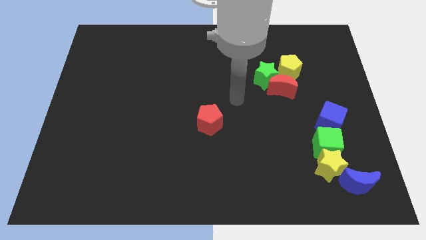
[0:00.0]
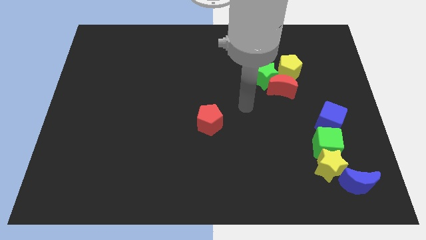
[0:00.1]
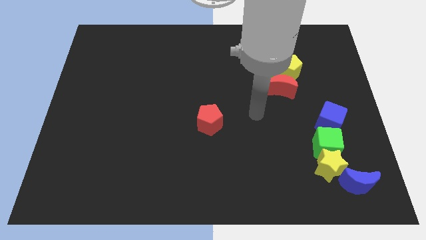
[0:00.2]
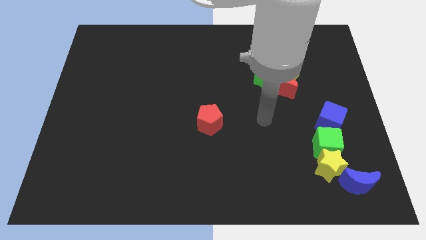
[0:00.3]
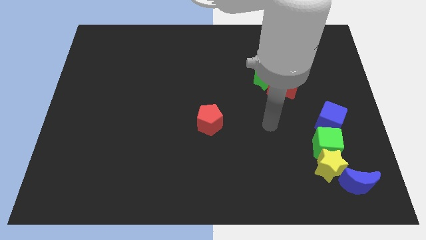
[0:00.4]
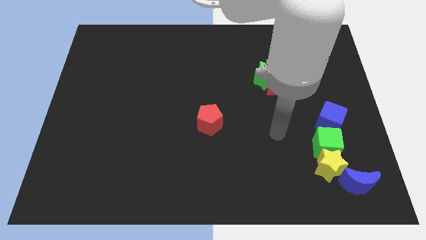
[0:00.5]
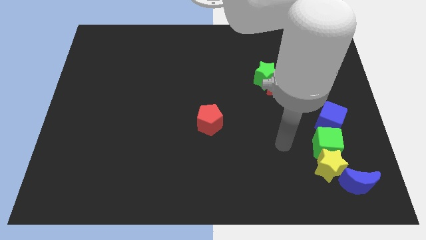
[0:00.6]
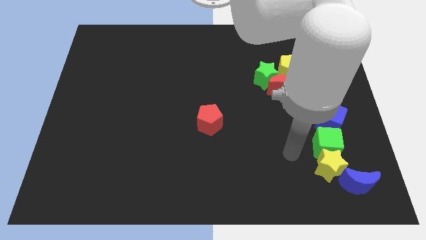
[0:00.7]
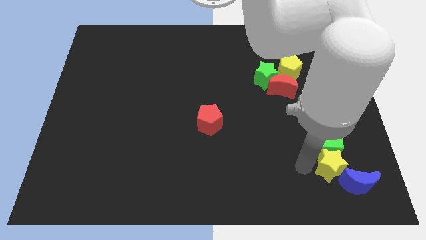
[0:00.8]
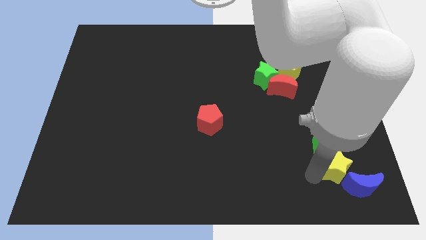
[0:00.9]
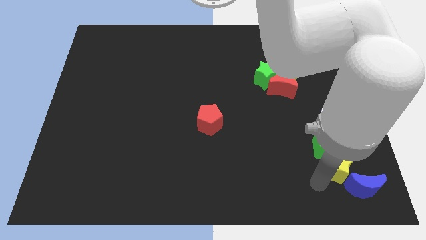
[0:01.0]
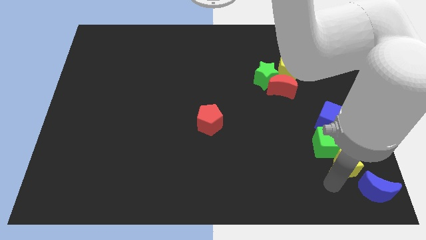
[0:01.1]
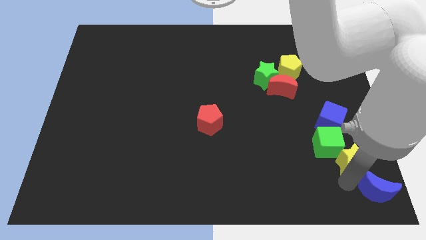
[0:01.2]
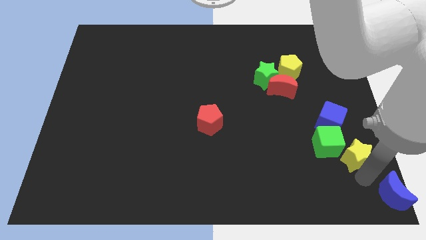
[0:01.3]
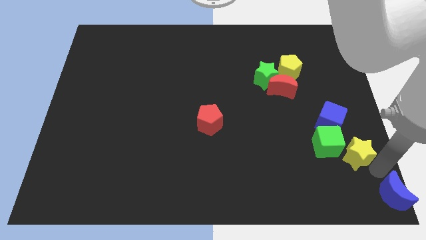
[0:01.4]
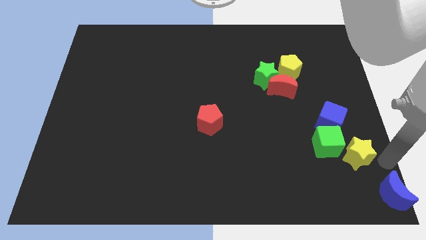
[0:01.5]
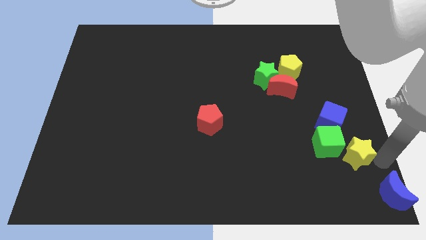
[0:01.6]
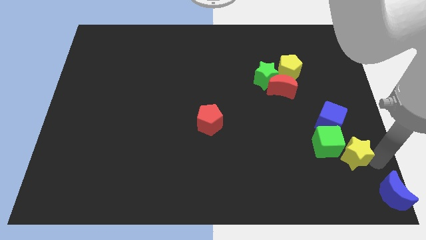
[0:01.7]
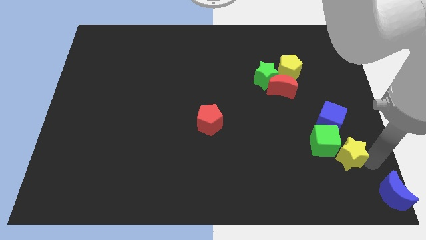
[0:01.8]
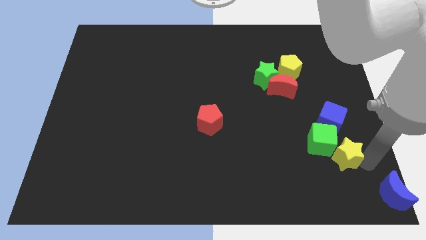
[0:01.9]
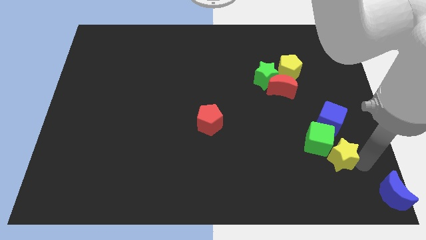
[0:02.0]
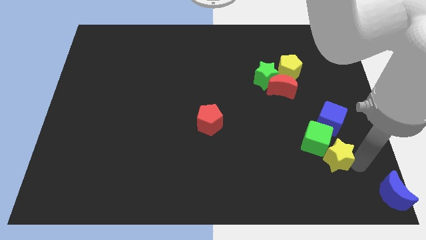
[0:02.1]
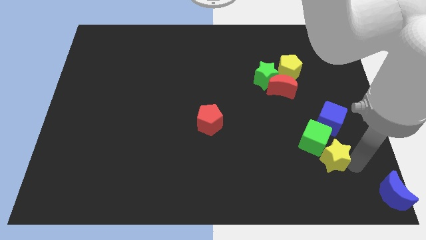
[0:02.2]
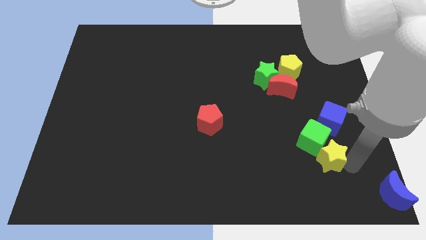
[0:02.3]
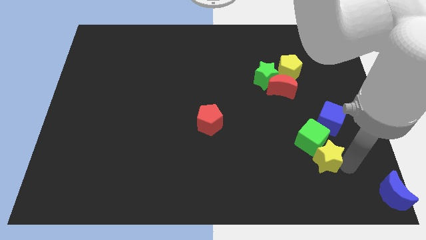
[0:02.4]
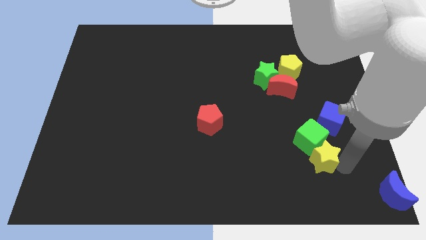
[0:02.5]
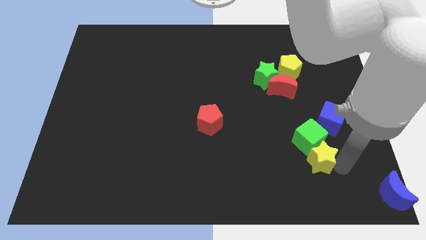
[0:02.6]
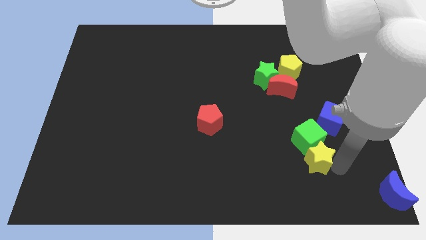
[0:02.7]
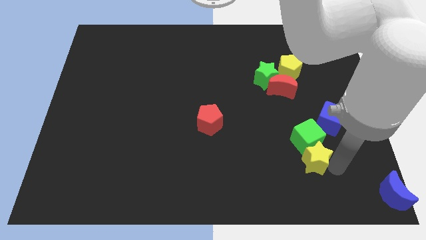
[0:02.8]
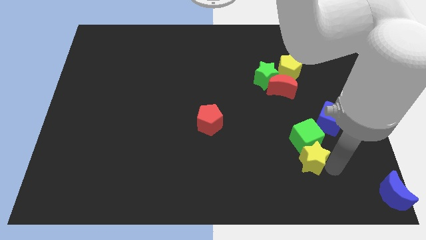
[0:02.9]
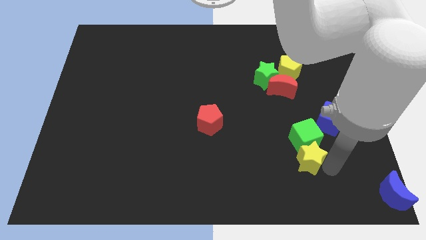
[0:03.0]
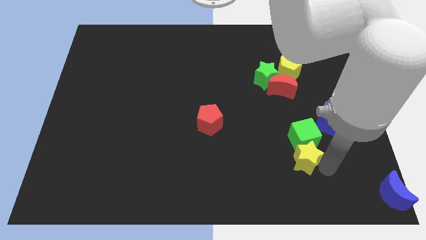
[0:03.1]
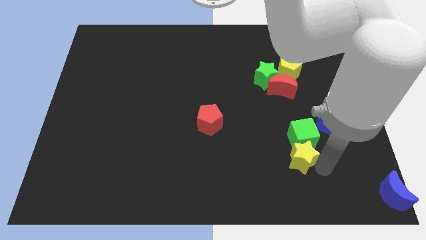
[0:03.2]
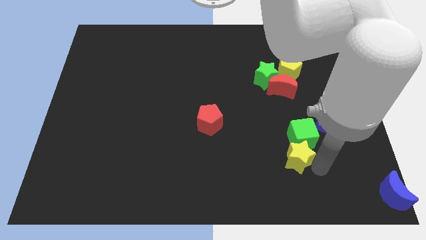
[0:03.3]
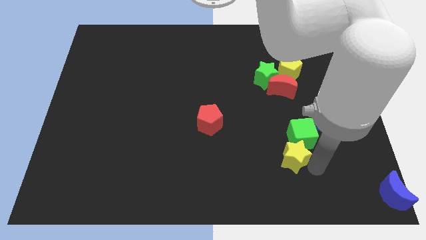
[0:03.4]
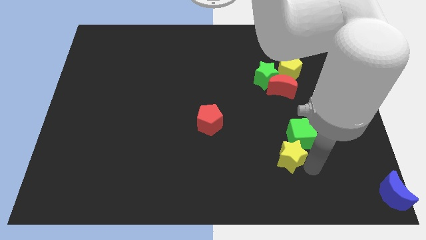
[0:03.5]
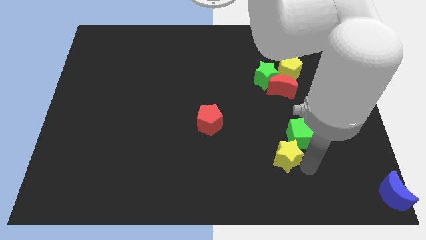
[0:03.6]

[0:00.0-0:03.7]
push the yellow star upwards and then left slightly

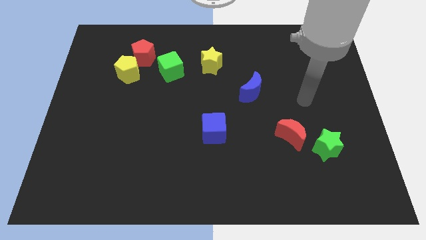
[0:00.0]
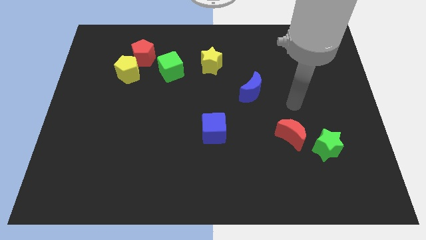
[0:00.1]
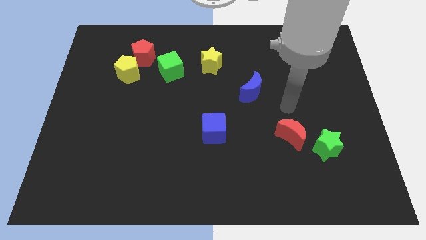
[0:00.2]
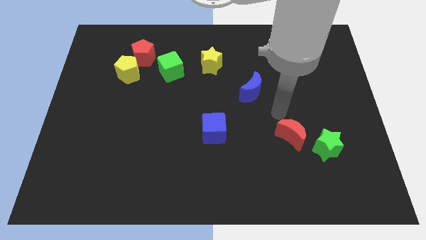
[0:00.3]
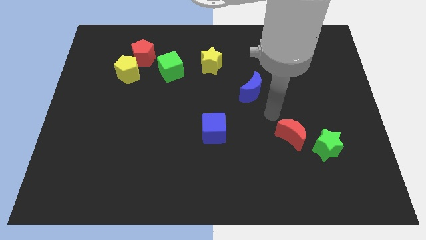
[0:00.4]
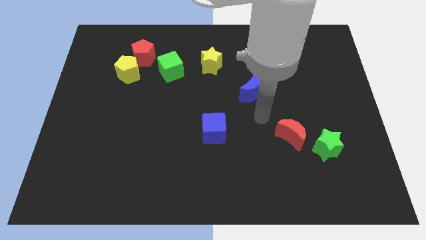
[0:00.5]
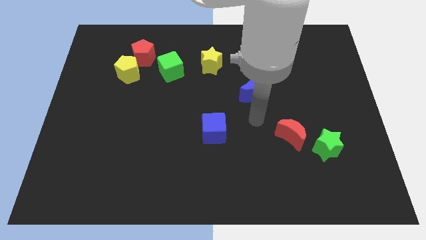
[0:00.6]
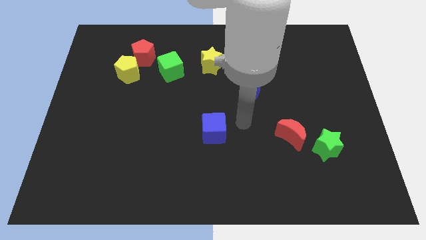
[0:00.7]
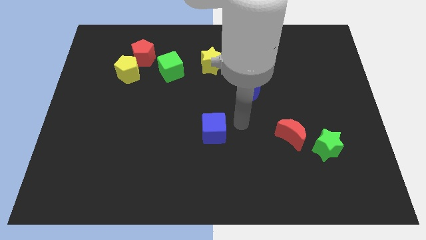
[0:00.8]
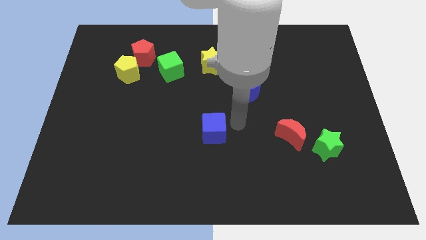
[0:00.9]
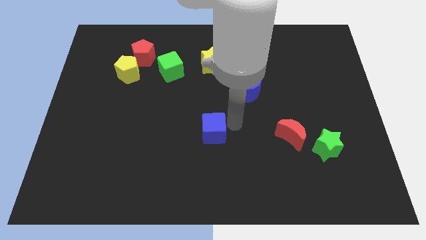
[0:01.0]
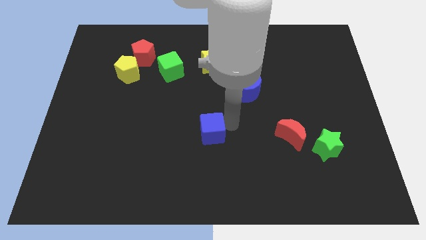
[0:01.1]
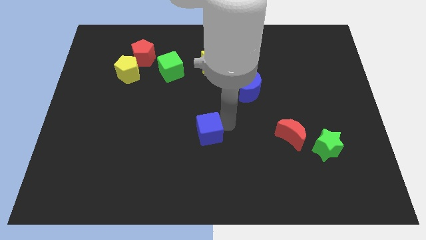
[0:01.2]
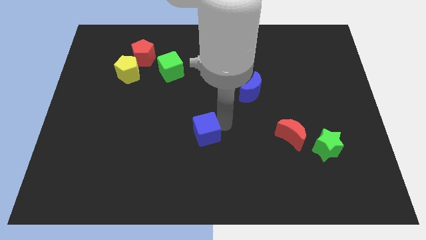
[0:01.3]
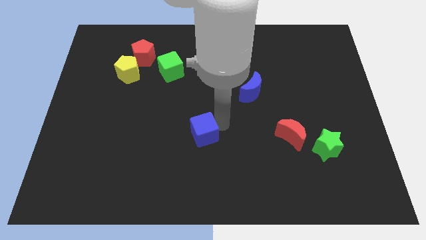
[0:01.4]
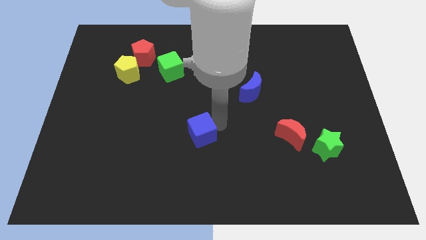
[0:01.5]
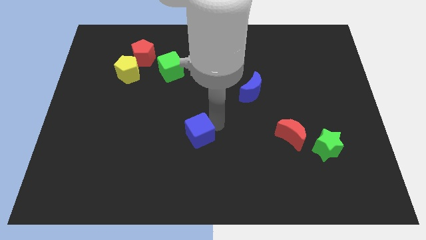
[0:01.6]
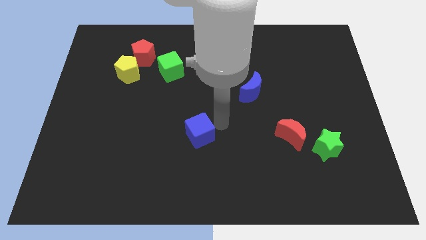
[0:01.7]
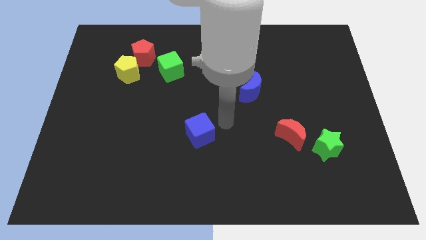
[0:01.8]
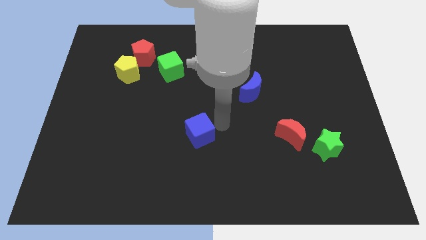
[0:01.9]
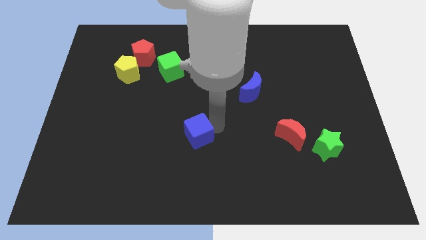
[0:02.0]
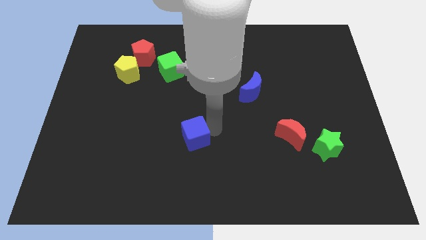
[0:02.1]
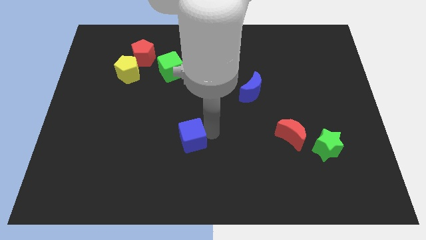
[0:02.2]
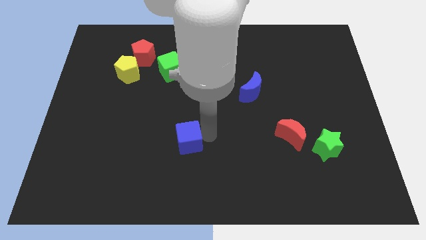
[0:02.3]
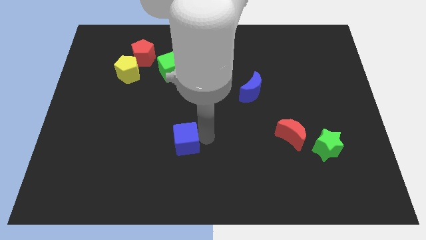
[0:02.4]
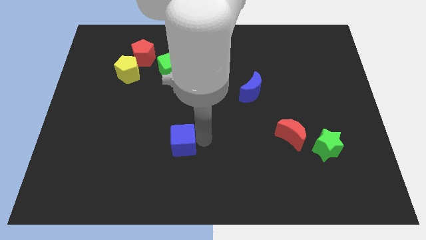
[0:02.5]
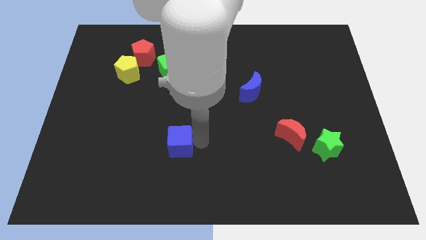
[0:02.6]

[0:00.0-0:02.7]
move the blue cube slightly left

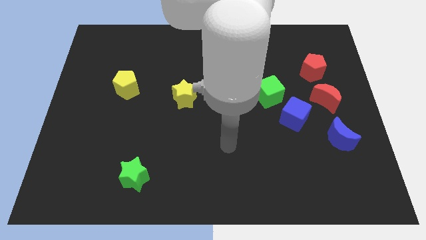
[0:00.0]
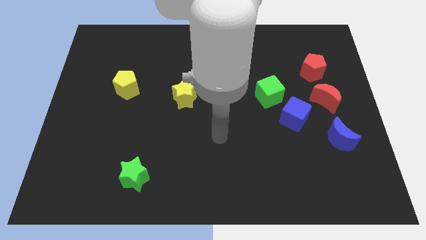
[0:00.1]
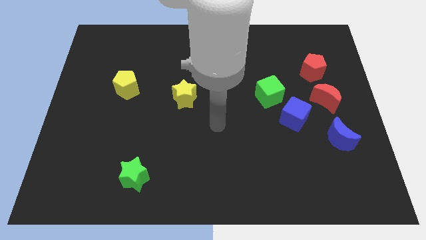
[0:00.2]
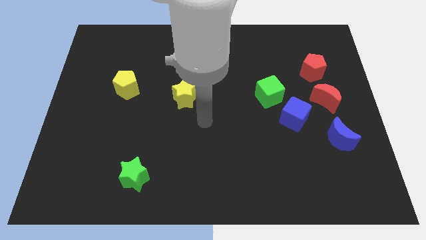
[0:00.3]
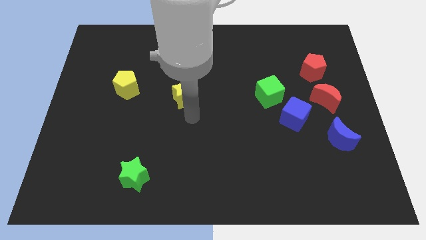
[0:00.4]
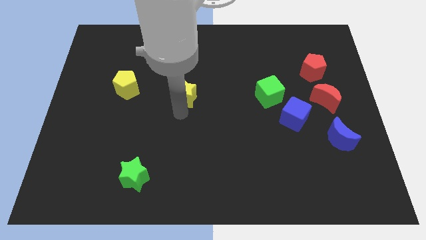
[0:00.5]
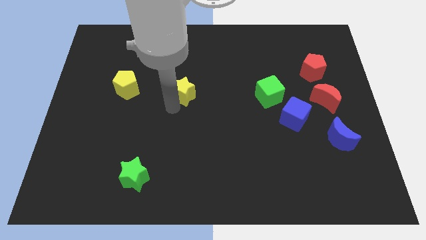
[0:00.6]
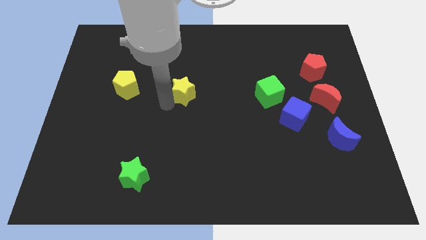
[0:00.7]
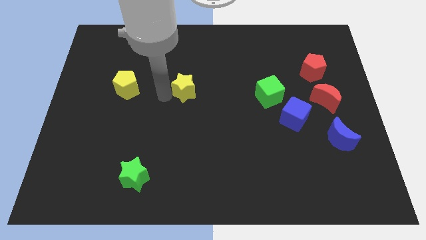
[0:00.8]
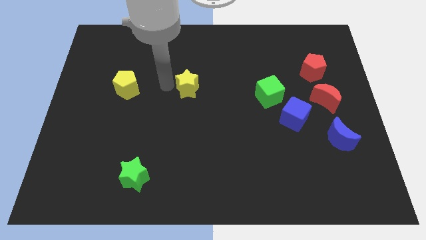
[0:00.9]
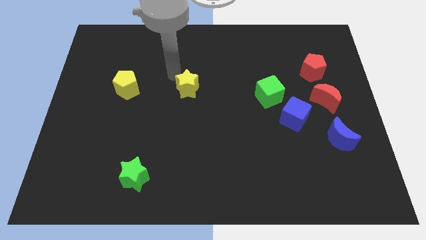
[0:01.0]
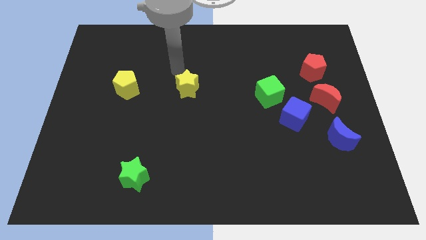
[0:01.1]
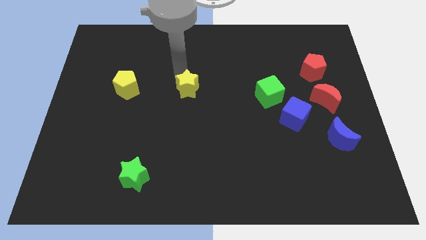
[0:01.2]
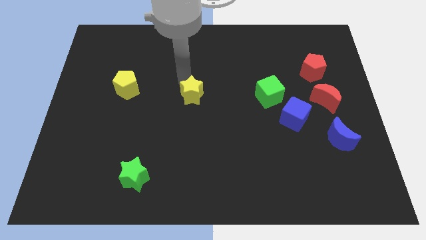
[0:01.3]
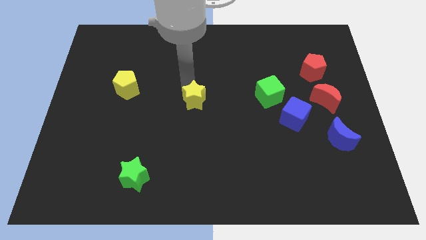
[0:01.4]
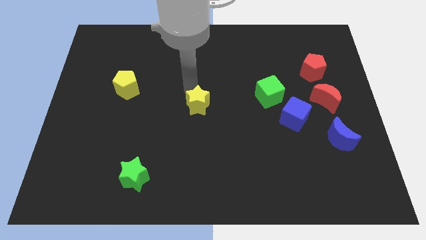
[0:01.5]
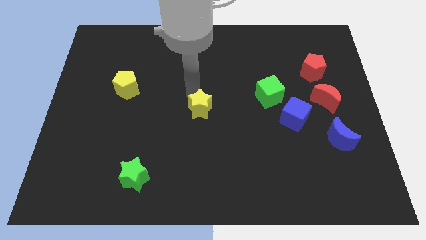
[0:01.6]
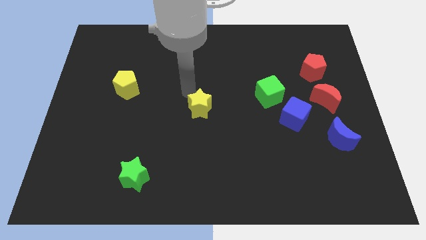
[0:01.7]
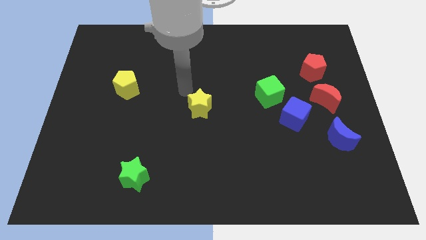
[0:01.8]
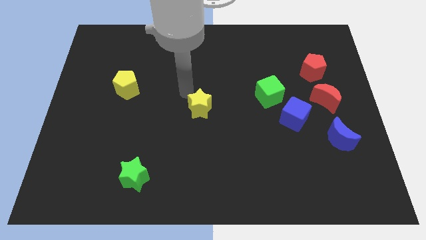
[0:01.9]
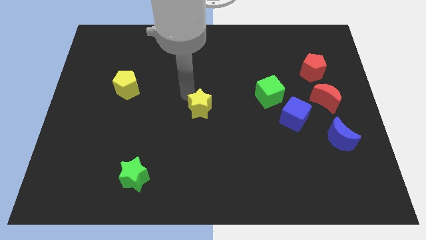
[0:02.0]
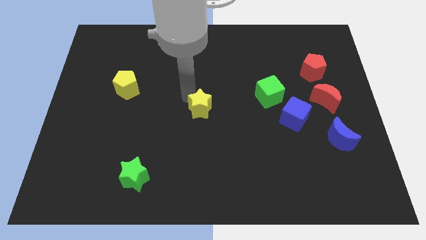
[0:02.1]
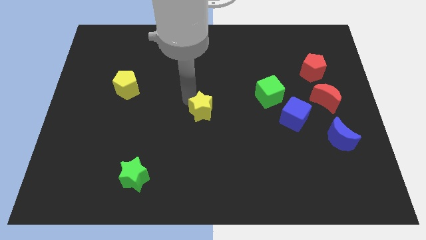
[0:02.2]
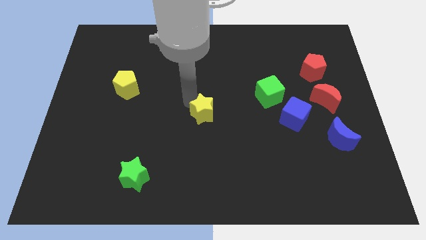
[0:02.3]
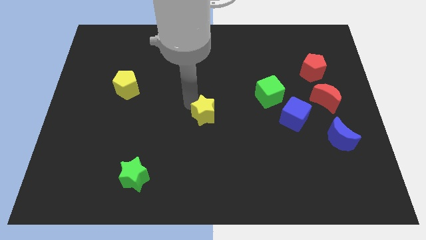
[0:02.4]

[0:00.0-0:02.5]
slide the yellow star down and right a little
